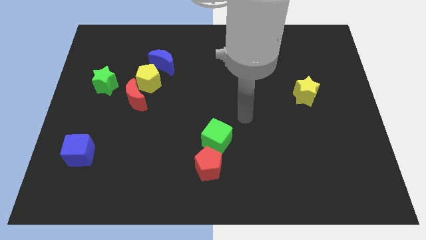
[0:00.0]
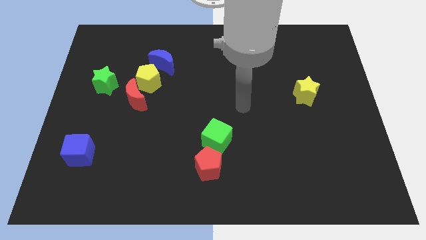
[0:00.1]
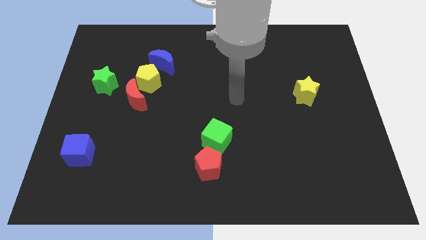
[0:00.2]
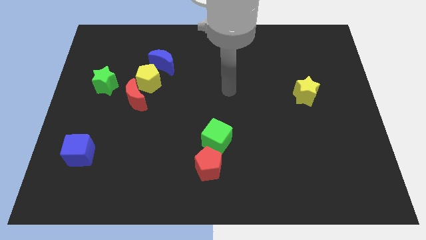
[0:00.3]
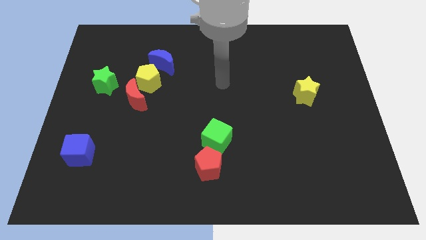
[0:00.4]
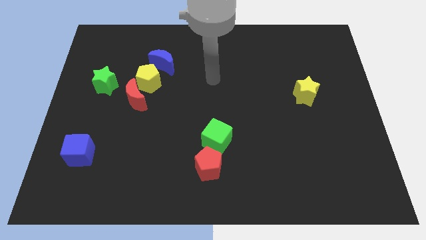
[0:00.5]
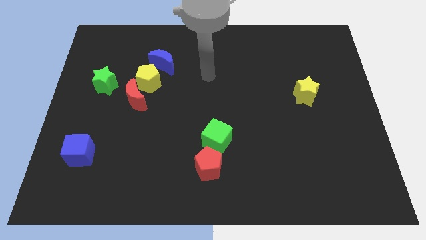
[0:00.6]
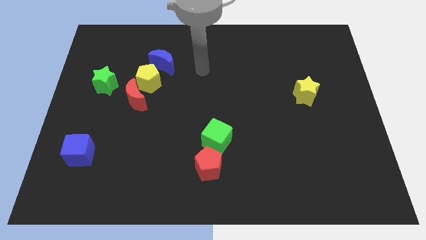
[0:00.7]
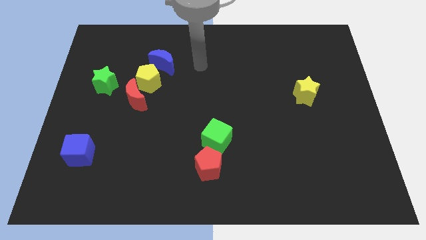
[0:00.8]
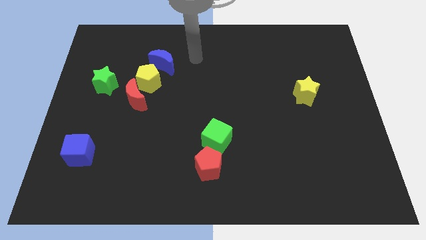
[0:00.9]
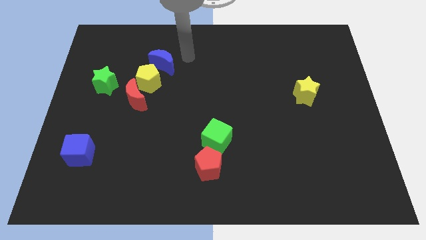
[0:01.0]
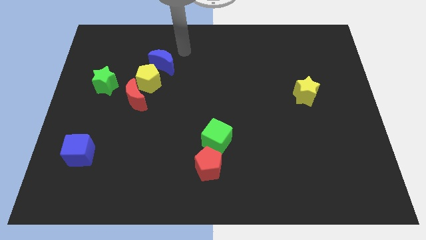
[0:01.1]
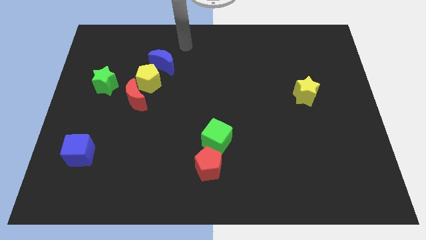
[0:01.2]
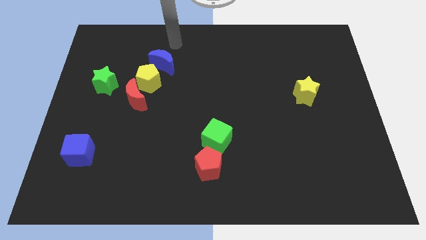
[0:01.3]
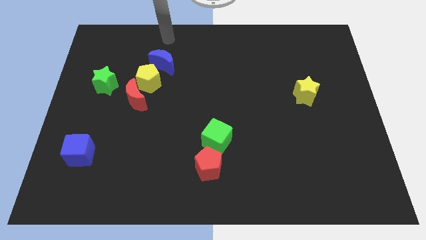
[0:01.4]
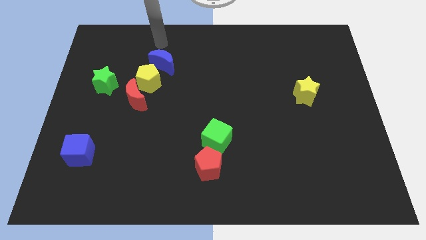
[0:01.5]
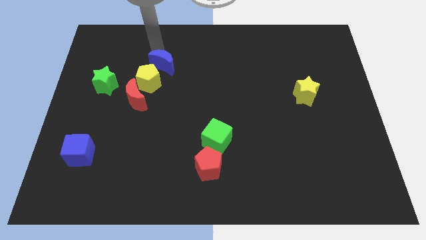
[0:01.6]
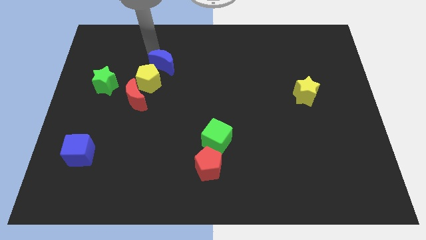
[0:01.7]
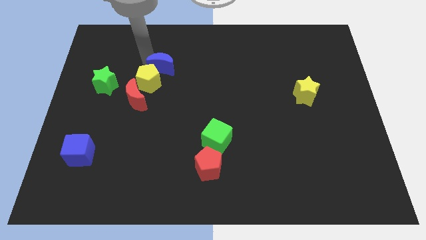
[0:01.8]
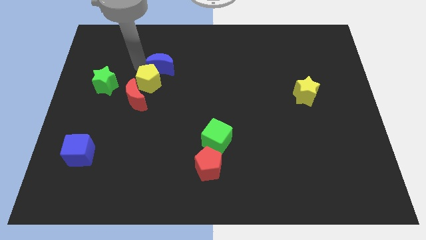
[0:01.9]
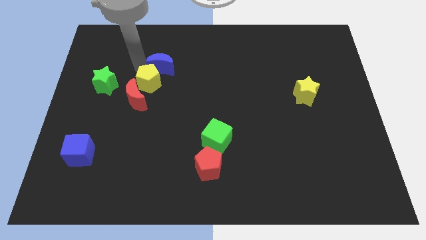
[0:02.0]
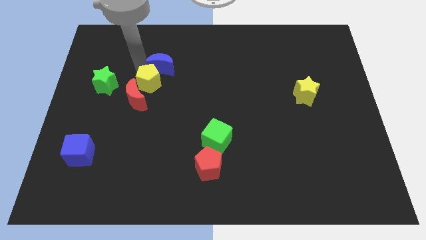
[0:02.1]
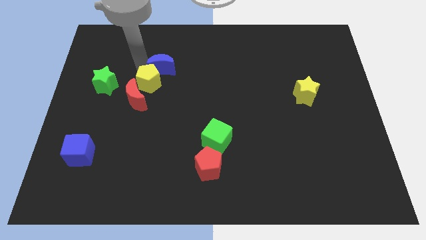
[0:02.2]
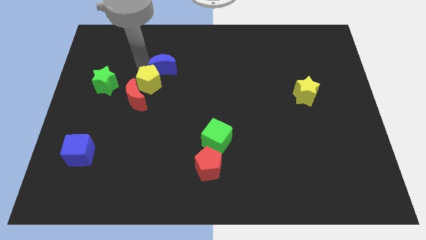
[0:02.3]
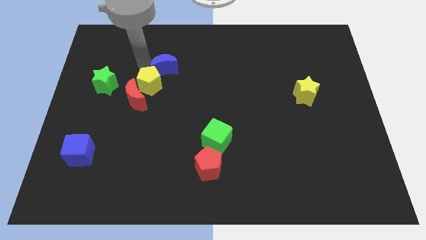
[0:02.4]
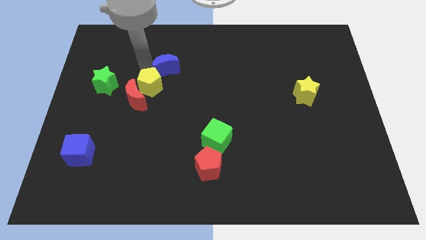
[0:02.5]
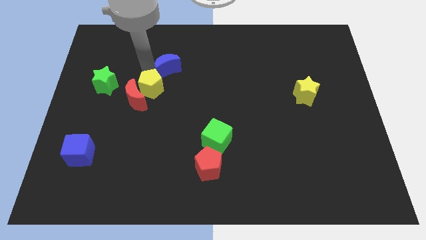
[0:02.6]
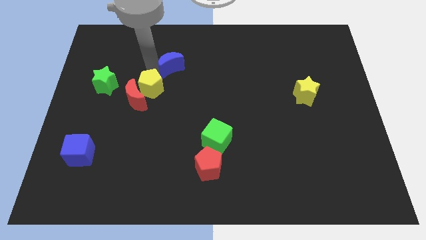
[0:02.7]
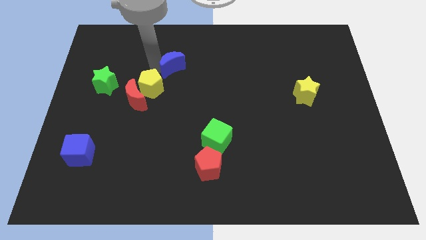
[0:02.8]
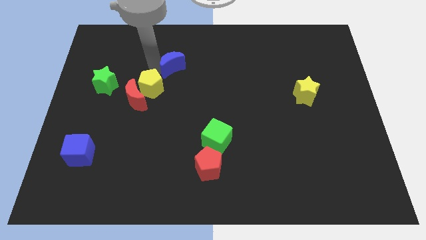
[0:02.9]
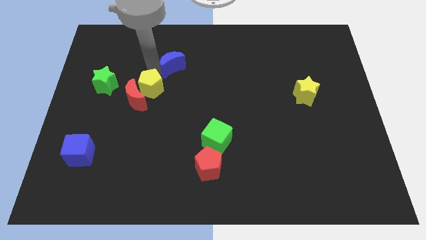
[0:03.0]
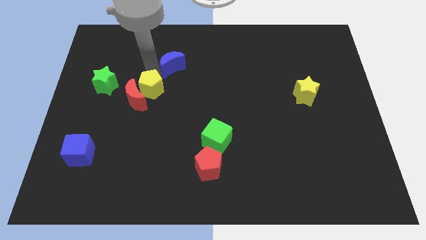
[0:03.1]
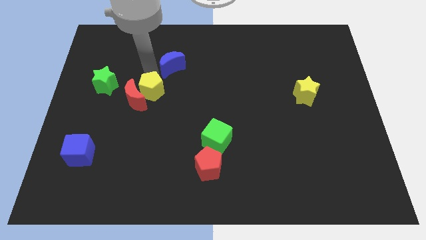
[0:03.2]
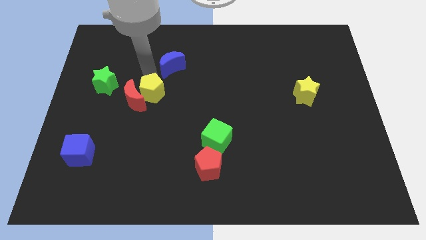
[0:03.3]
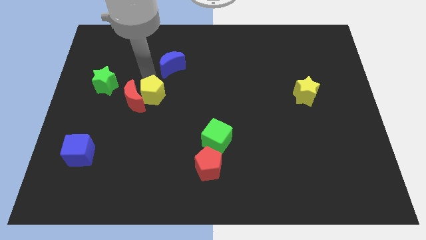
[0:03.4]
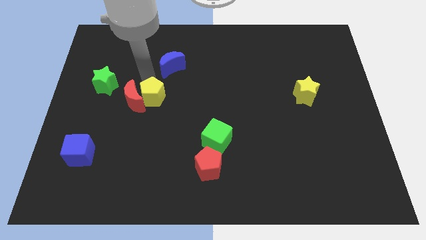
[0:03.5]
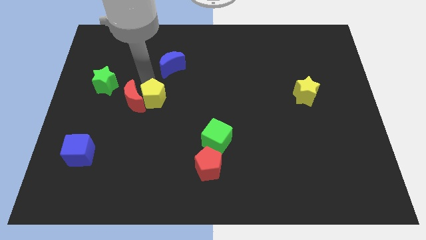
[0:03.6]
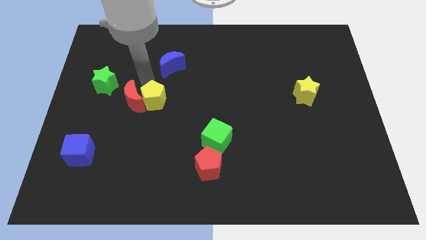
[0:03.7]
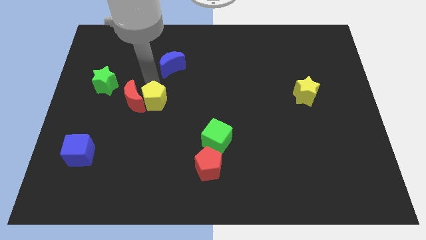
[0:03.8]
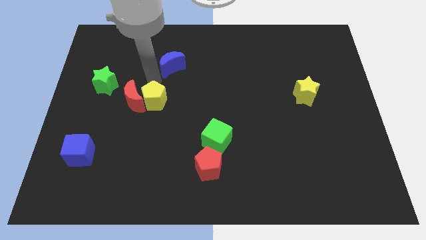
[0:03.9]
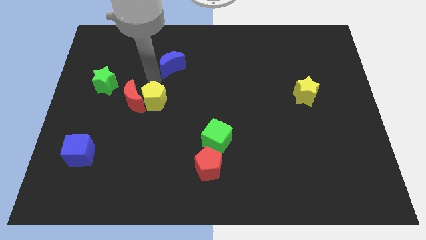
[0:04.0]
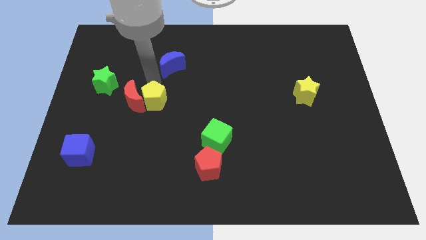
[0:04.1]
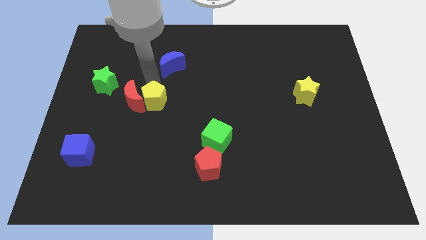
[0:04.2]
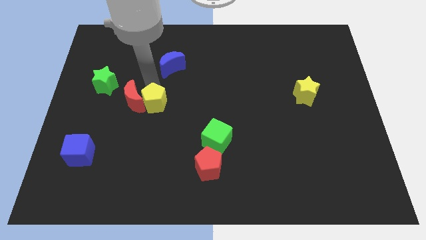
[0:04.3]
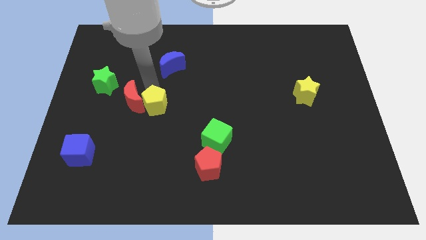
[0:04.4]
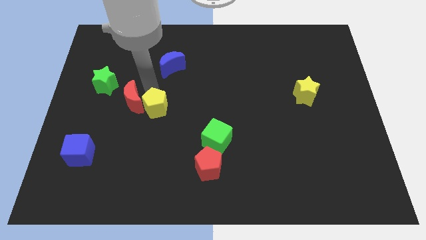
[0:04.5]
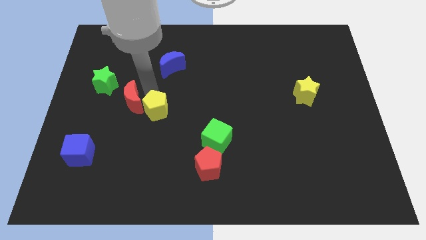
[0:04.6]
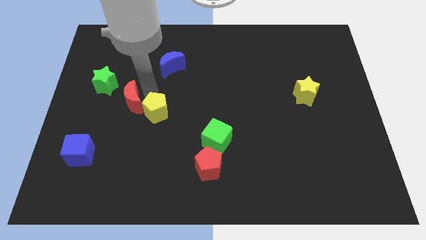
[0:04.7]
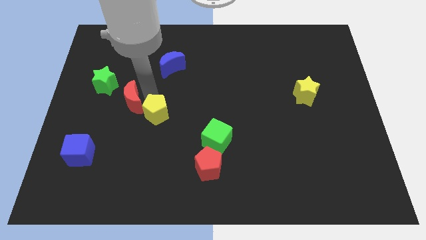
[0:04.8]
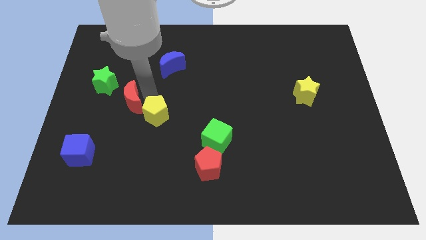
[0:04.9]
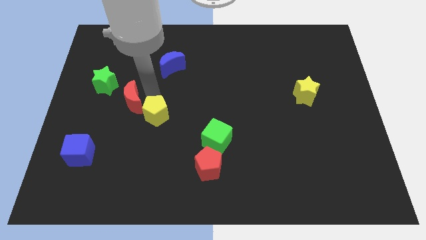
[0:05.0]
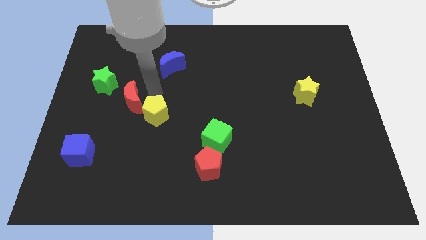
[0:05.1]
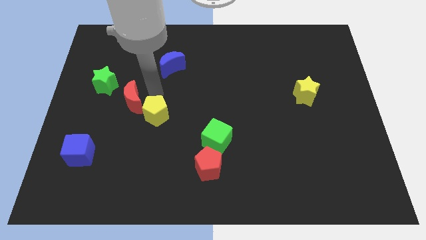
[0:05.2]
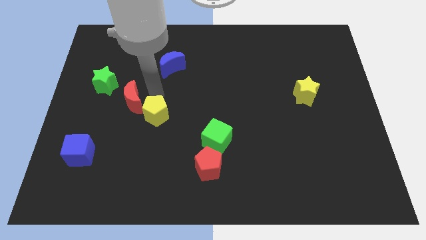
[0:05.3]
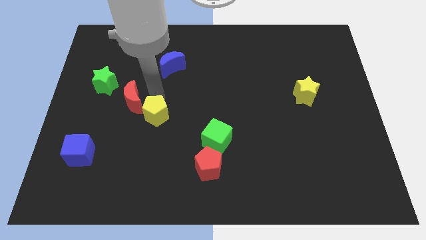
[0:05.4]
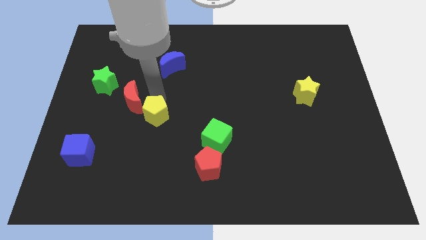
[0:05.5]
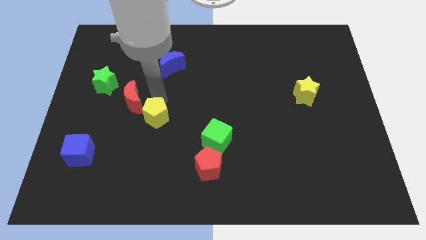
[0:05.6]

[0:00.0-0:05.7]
pull the yellow pentagon apart from the red moon and blue moon

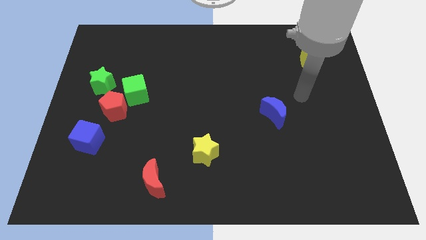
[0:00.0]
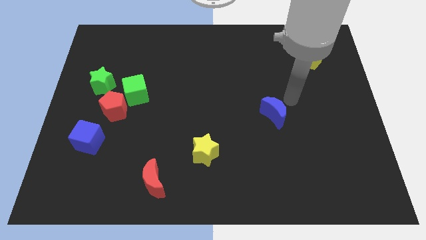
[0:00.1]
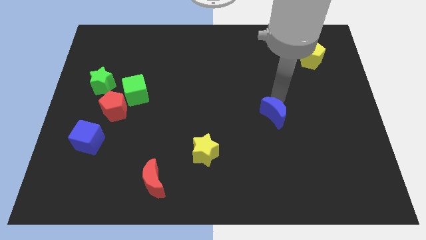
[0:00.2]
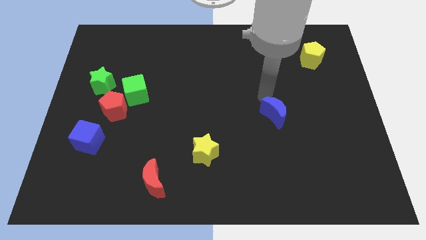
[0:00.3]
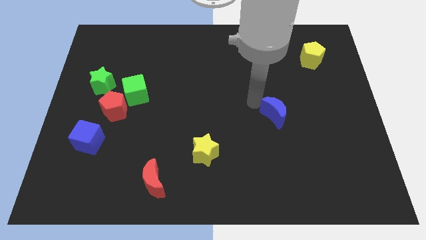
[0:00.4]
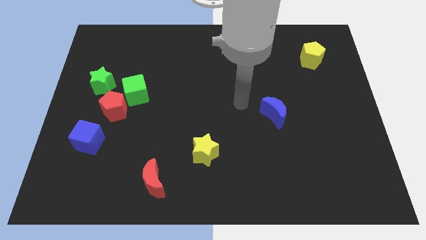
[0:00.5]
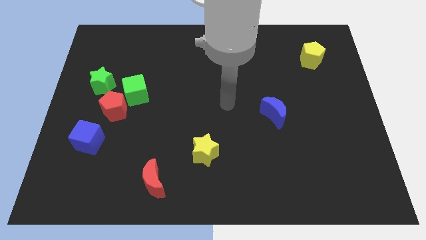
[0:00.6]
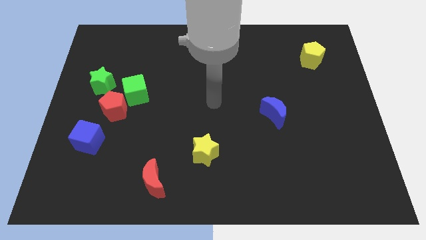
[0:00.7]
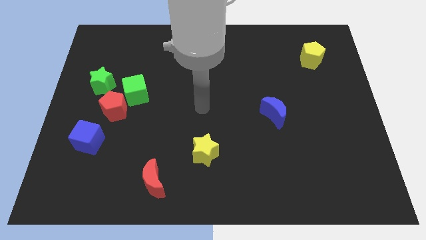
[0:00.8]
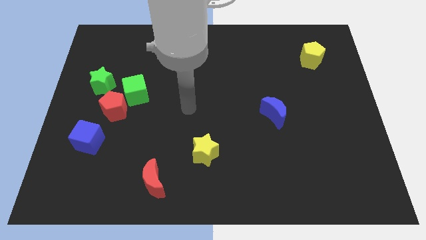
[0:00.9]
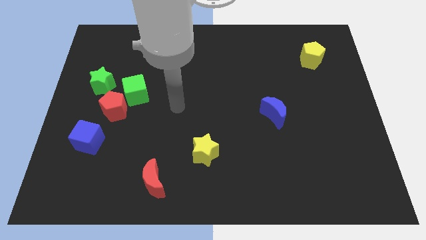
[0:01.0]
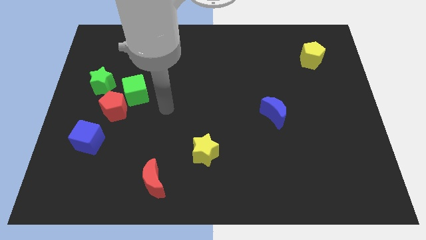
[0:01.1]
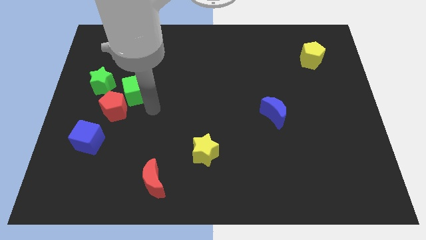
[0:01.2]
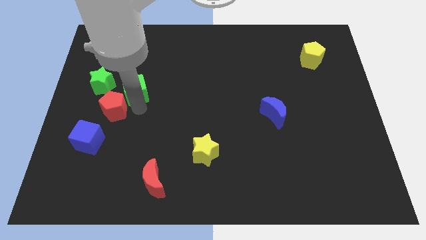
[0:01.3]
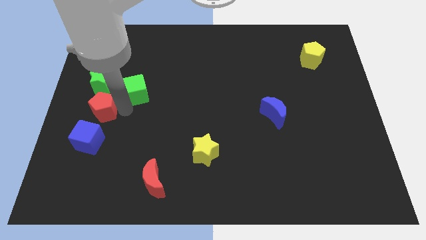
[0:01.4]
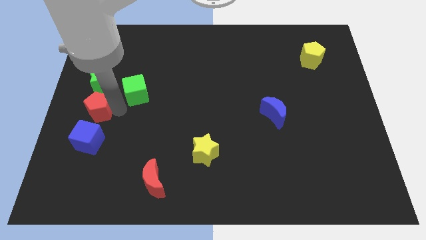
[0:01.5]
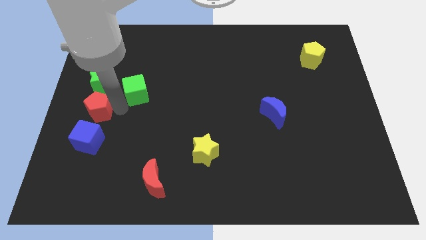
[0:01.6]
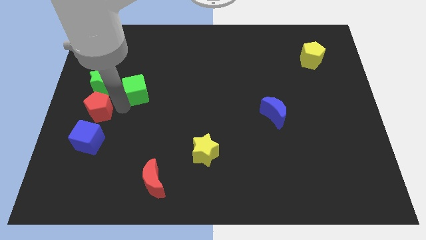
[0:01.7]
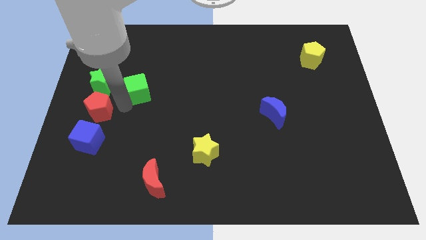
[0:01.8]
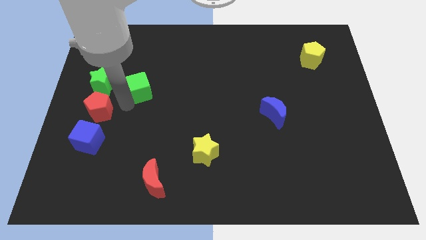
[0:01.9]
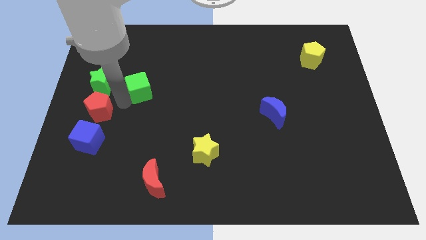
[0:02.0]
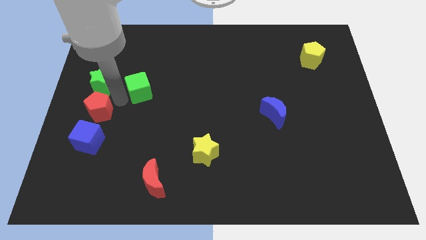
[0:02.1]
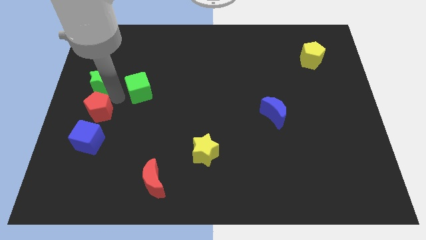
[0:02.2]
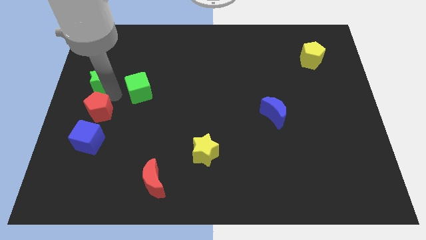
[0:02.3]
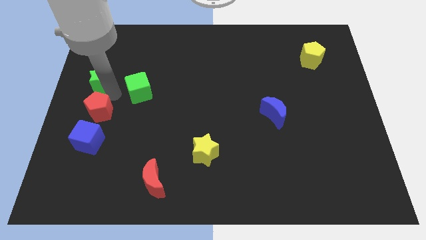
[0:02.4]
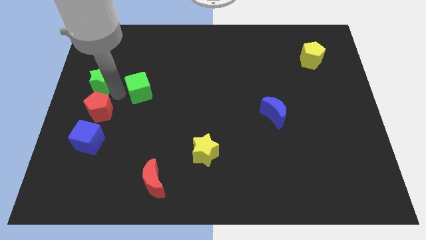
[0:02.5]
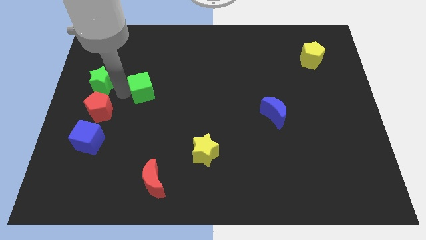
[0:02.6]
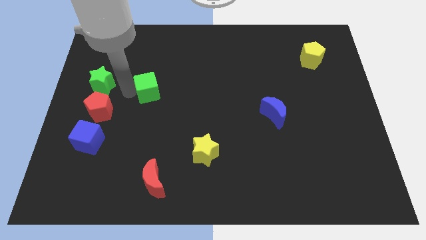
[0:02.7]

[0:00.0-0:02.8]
separate the green cube from the red pentagon and green star

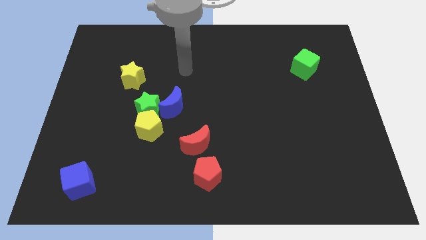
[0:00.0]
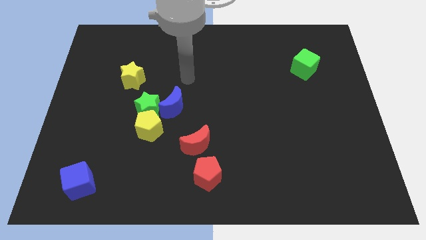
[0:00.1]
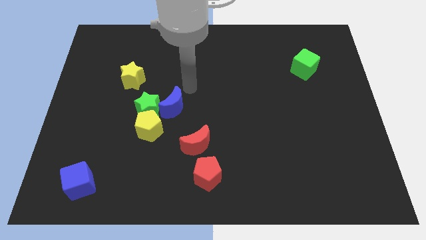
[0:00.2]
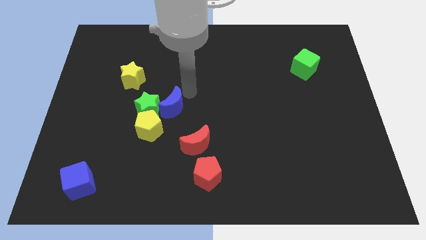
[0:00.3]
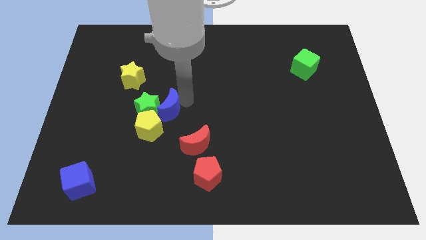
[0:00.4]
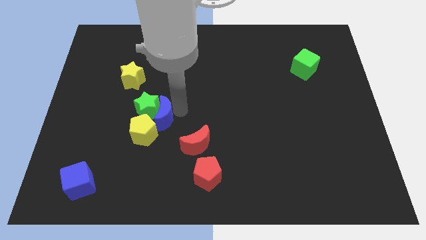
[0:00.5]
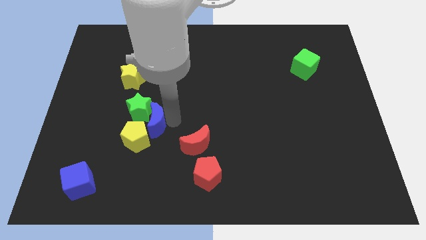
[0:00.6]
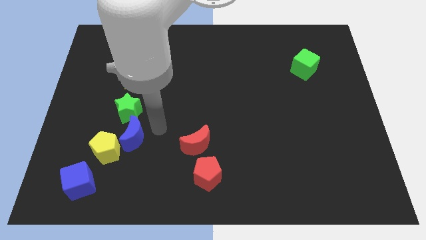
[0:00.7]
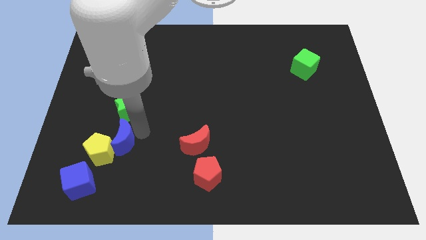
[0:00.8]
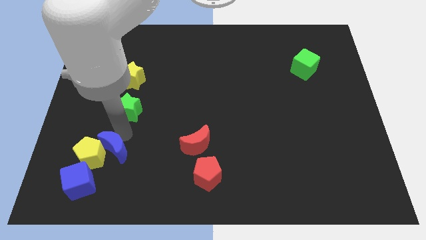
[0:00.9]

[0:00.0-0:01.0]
pull the green star apart from the yellow pentagon and blue moon
